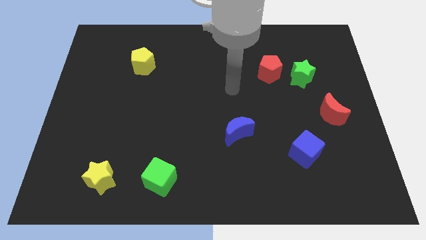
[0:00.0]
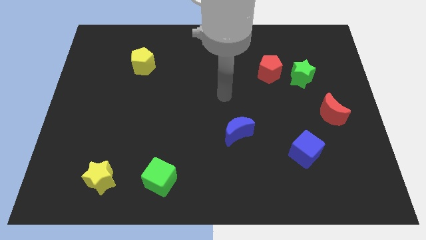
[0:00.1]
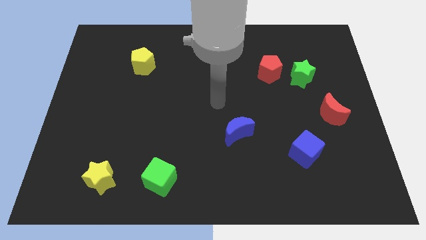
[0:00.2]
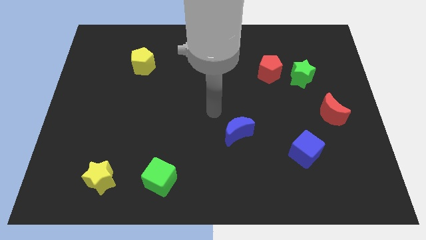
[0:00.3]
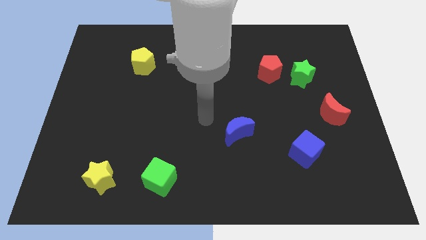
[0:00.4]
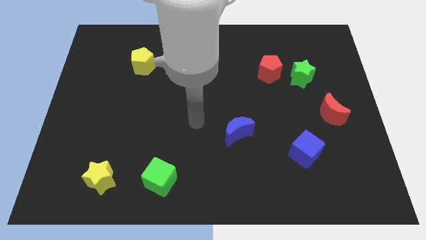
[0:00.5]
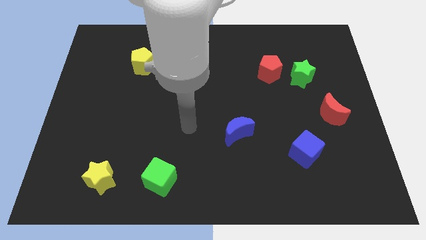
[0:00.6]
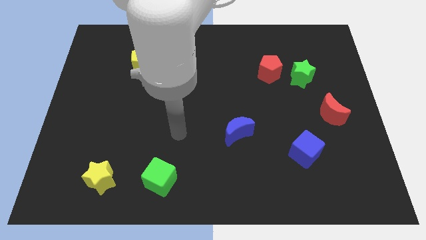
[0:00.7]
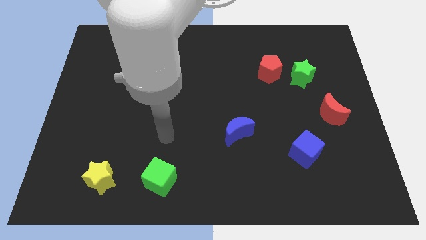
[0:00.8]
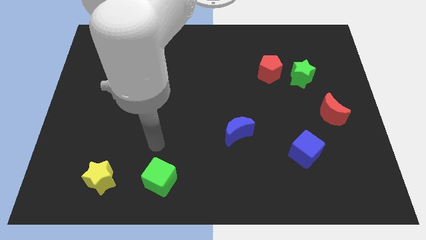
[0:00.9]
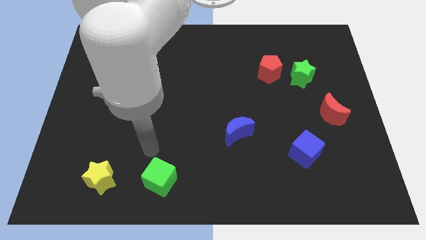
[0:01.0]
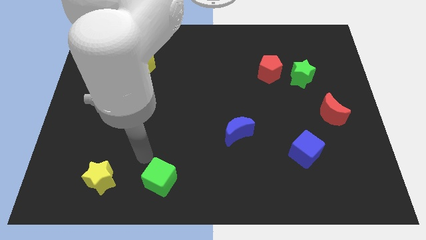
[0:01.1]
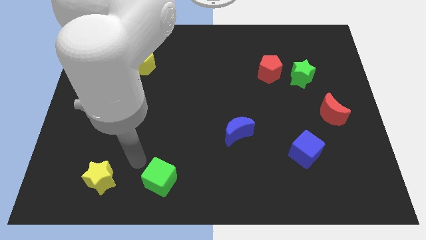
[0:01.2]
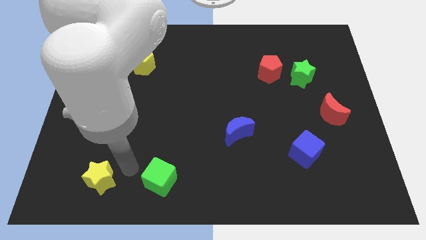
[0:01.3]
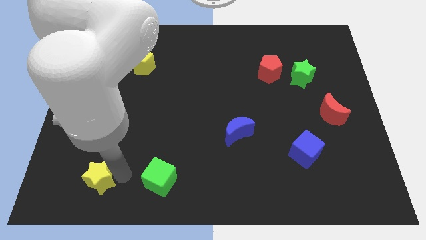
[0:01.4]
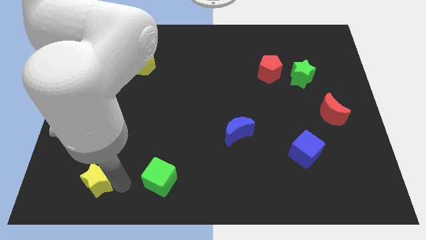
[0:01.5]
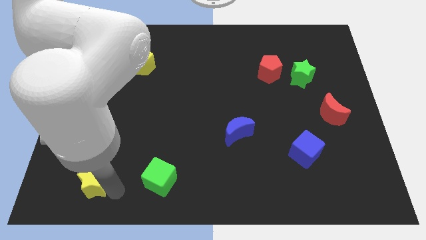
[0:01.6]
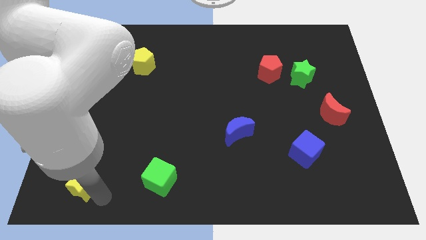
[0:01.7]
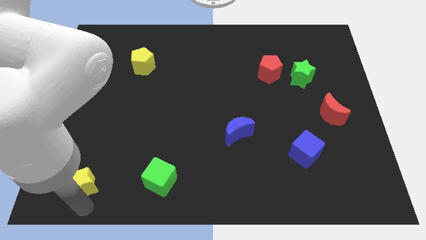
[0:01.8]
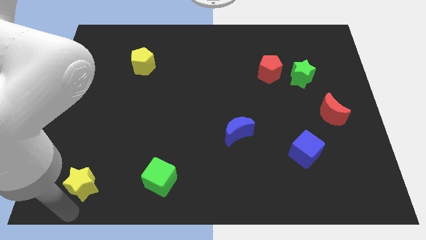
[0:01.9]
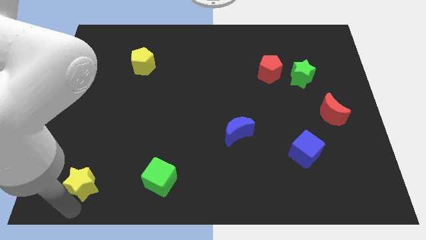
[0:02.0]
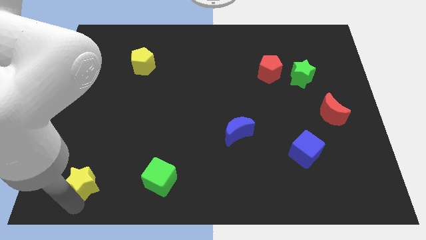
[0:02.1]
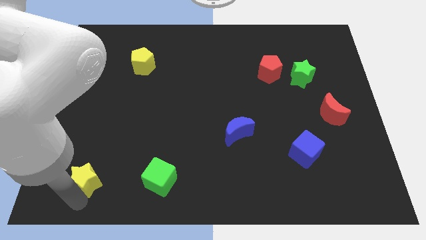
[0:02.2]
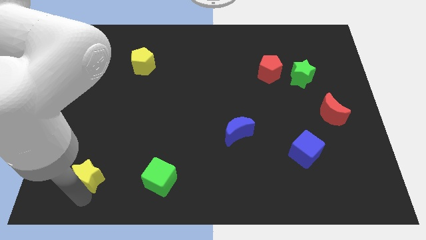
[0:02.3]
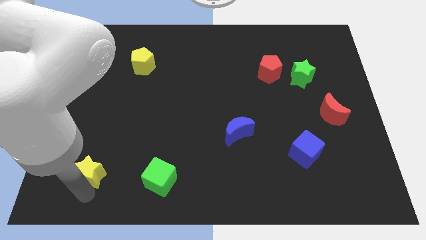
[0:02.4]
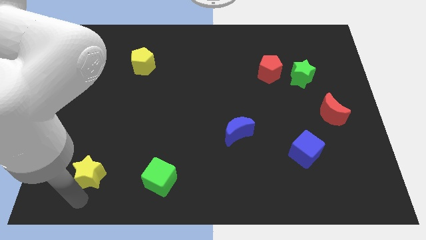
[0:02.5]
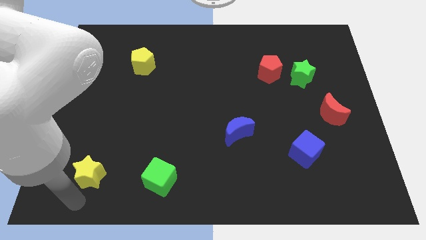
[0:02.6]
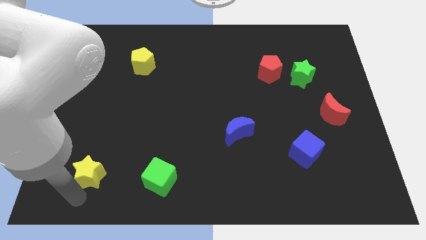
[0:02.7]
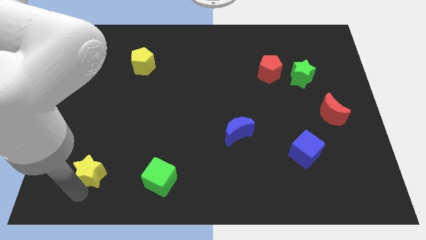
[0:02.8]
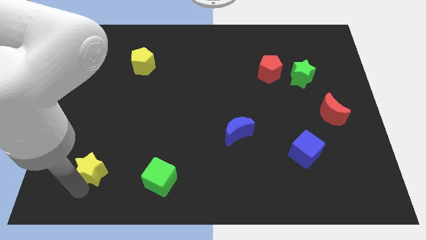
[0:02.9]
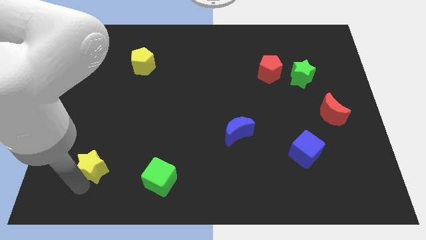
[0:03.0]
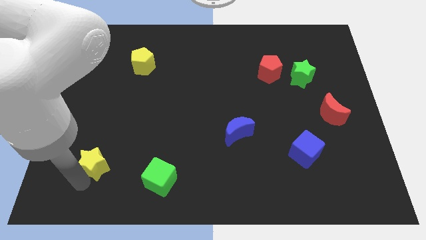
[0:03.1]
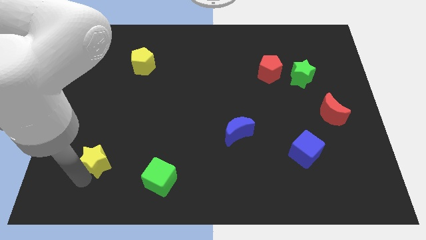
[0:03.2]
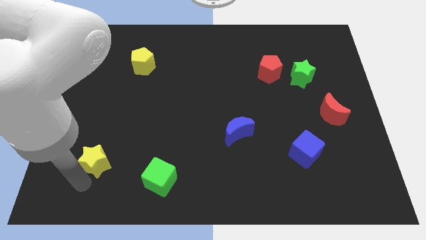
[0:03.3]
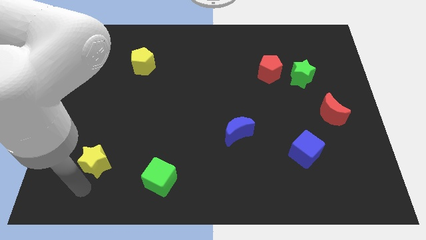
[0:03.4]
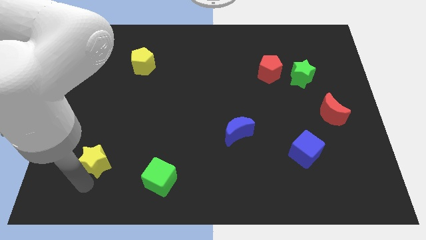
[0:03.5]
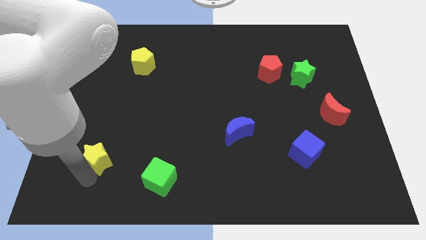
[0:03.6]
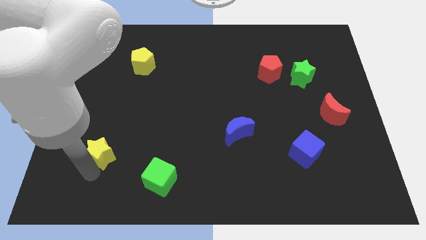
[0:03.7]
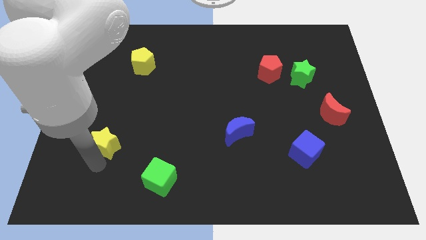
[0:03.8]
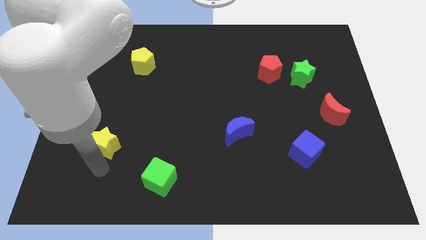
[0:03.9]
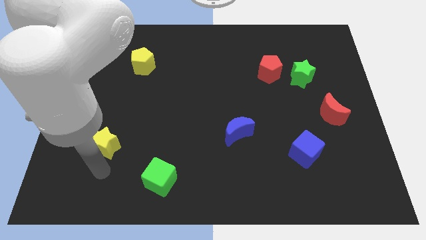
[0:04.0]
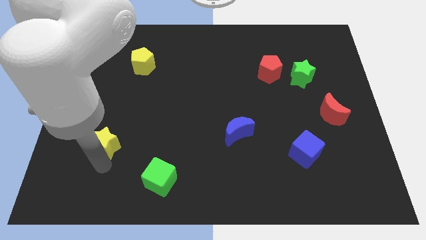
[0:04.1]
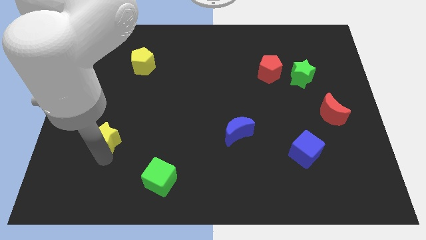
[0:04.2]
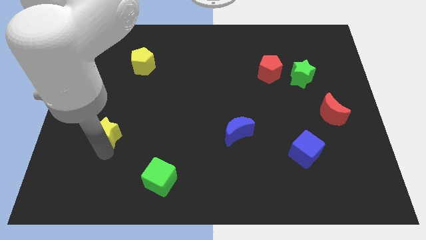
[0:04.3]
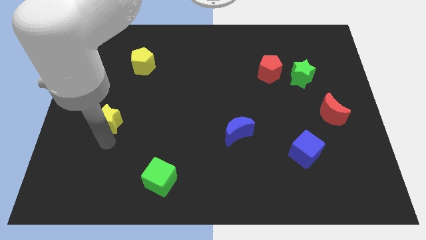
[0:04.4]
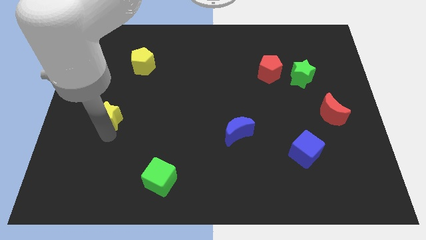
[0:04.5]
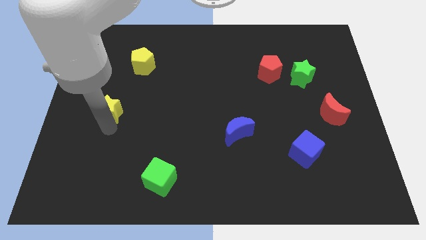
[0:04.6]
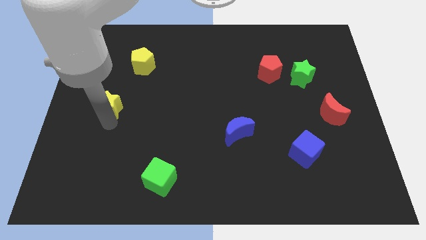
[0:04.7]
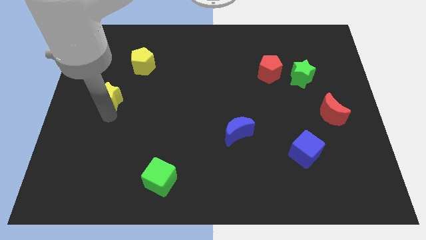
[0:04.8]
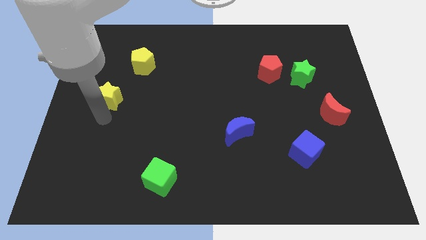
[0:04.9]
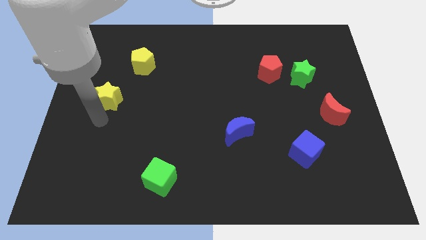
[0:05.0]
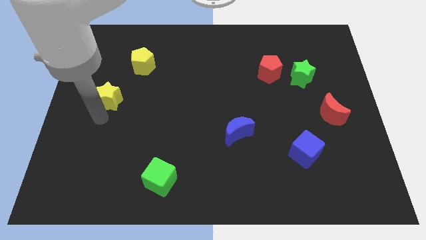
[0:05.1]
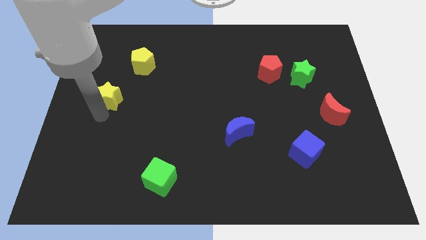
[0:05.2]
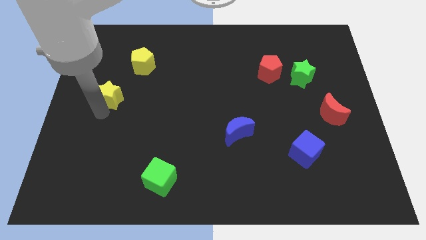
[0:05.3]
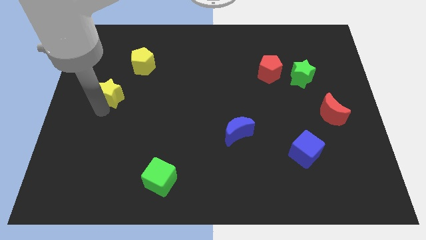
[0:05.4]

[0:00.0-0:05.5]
slide the yellow star to the bottom left side of the yellow pentagon

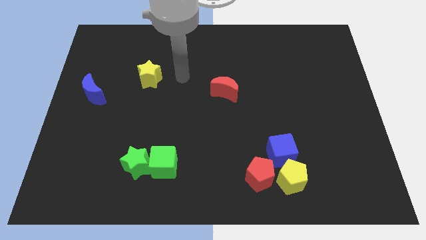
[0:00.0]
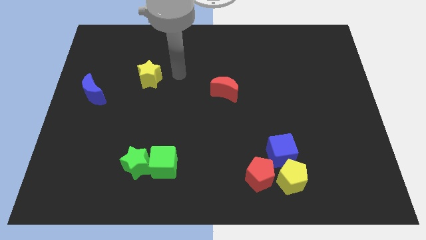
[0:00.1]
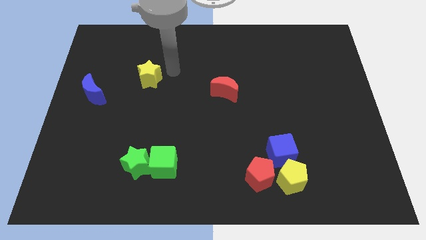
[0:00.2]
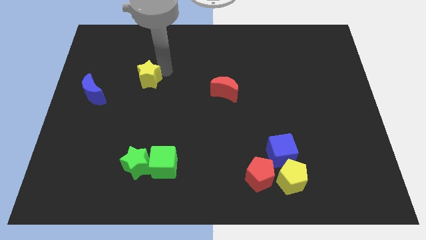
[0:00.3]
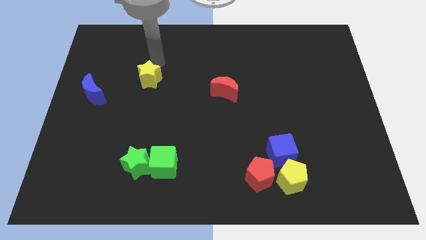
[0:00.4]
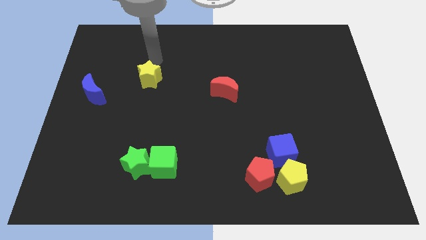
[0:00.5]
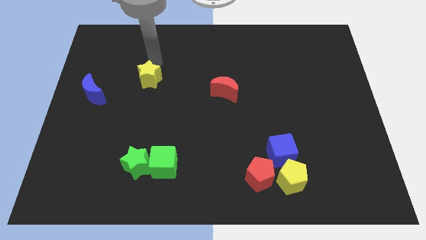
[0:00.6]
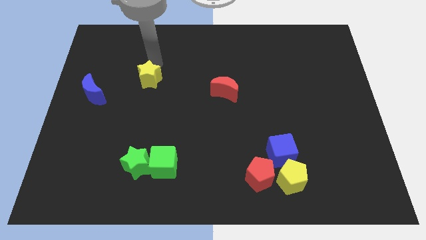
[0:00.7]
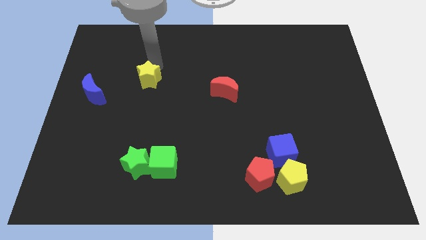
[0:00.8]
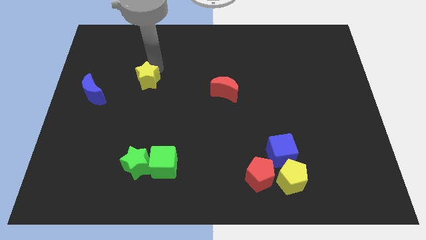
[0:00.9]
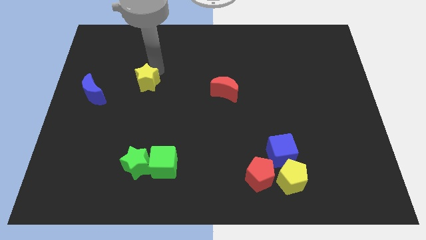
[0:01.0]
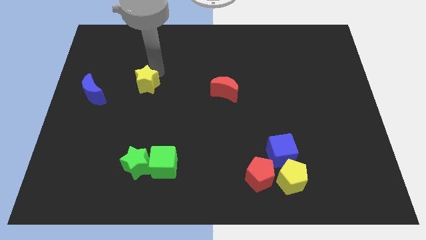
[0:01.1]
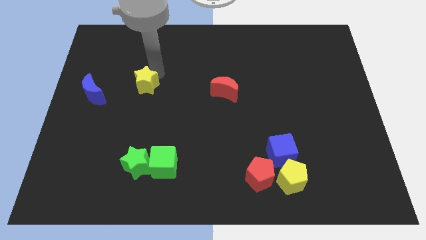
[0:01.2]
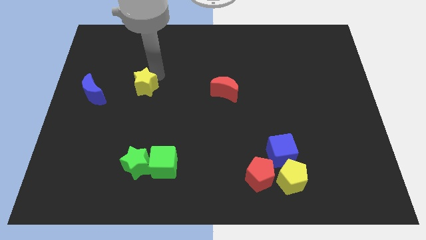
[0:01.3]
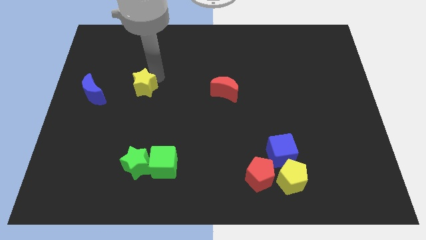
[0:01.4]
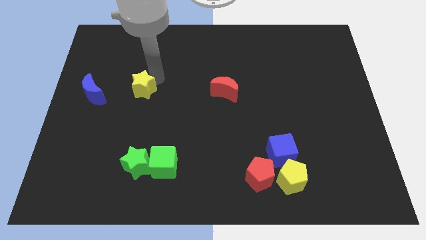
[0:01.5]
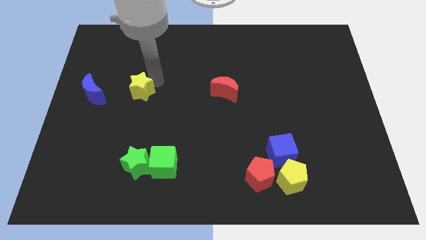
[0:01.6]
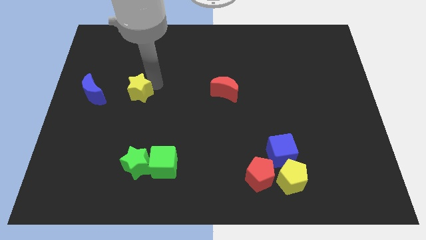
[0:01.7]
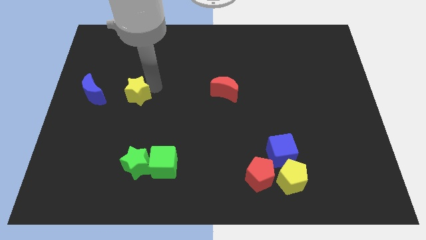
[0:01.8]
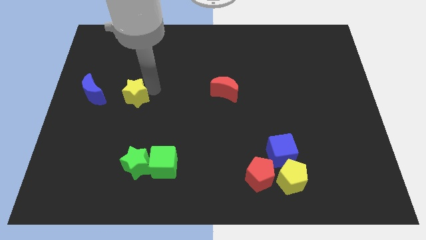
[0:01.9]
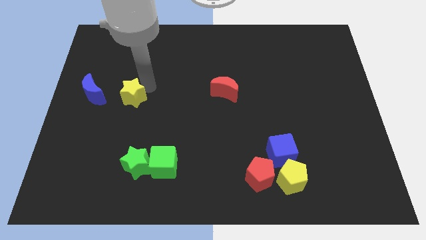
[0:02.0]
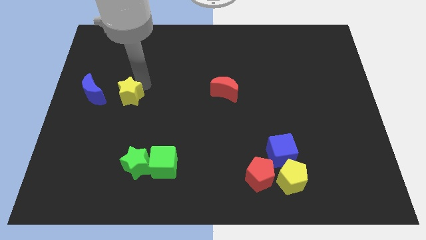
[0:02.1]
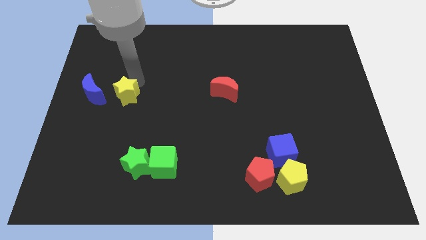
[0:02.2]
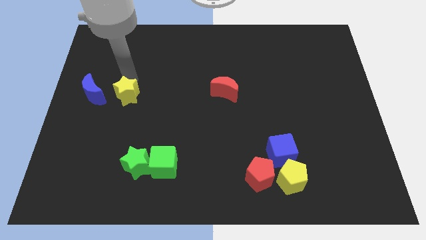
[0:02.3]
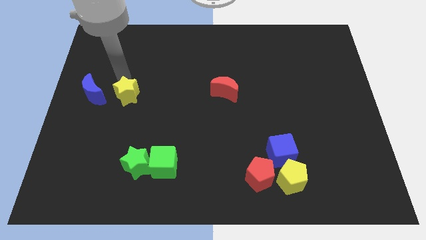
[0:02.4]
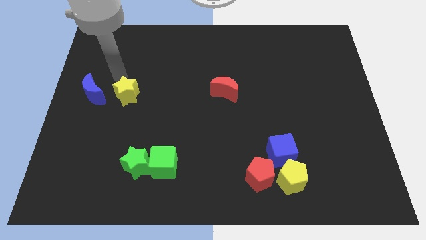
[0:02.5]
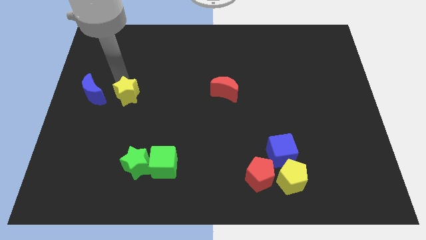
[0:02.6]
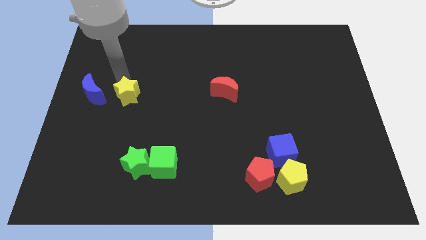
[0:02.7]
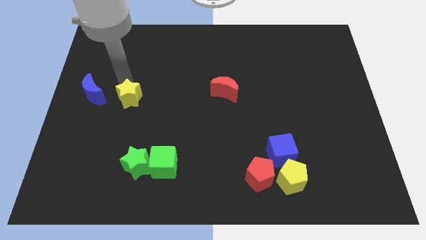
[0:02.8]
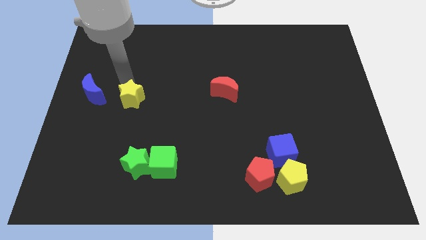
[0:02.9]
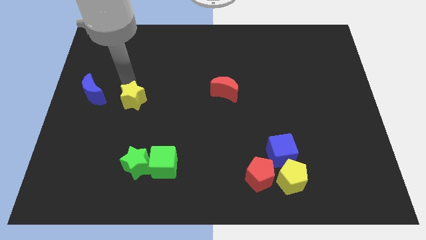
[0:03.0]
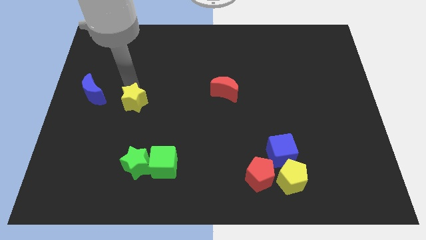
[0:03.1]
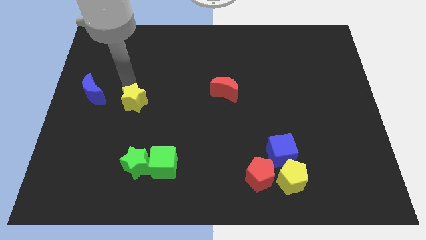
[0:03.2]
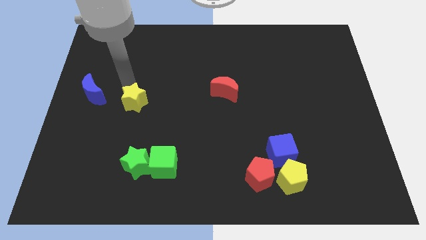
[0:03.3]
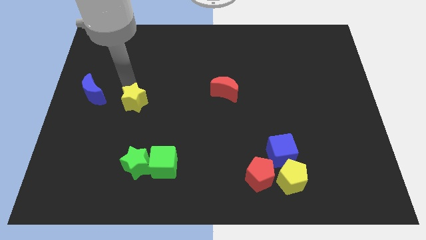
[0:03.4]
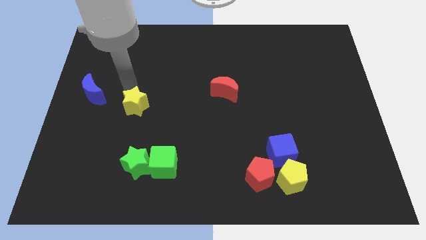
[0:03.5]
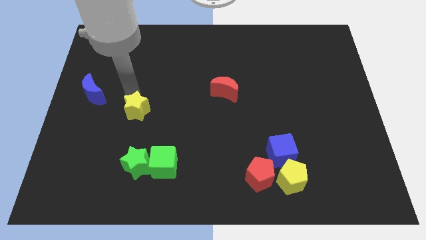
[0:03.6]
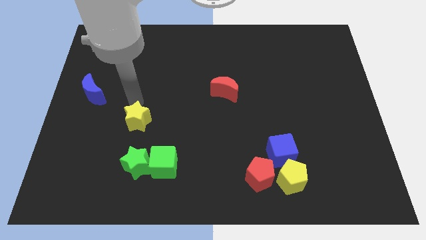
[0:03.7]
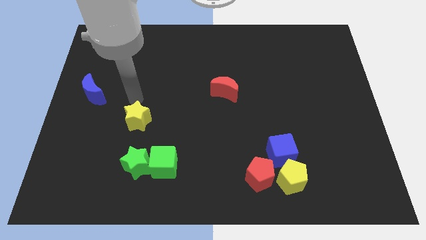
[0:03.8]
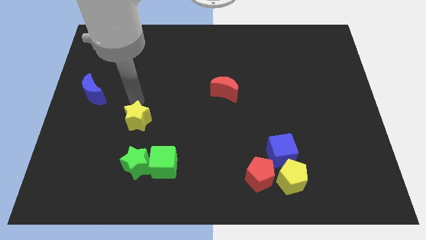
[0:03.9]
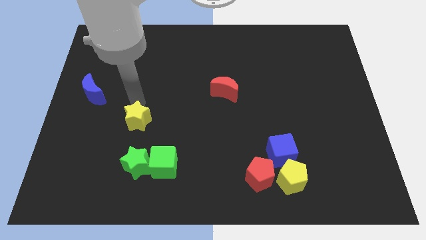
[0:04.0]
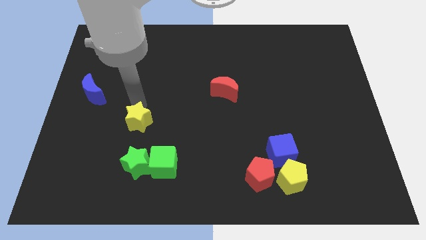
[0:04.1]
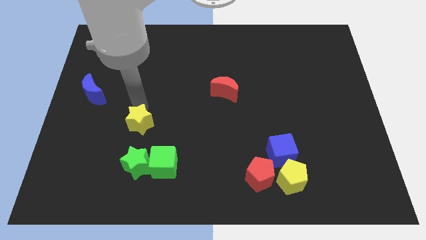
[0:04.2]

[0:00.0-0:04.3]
move the yellow star to the top left of the green cube
